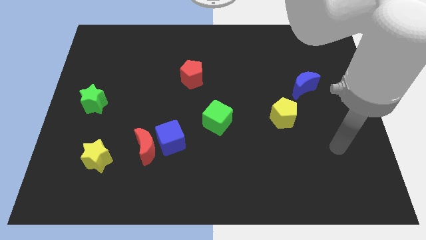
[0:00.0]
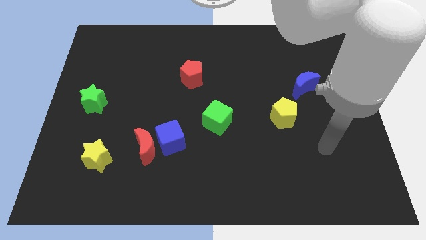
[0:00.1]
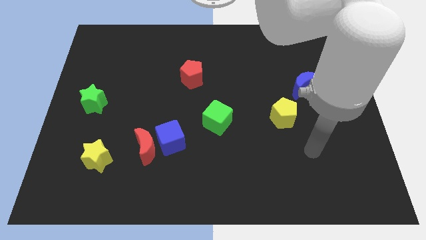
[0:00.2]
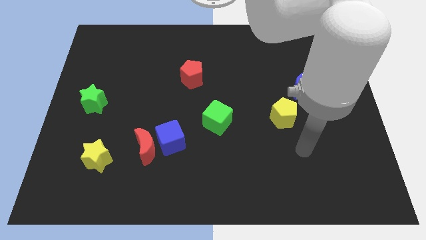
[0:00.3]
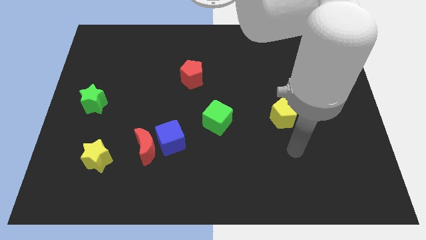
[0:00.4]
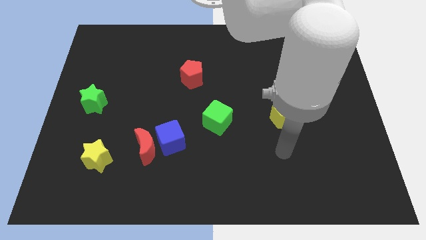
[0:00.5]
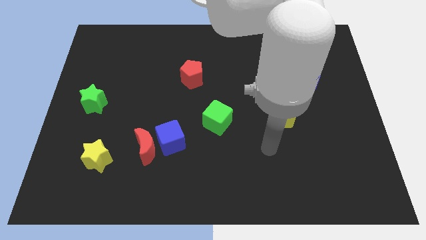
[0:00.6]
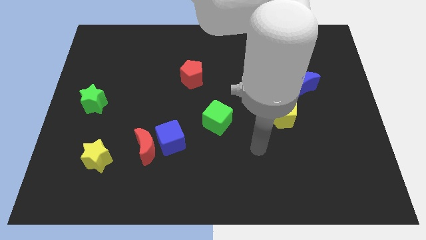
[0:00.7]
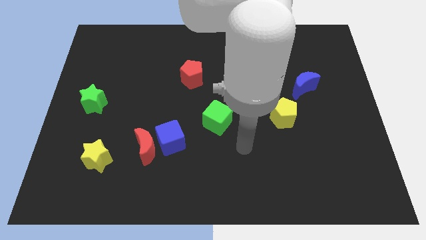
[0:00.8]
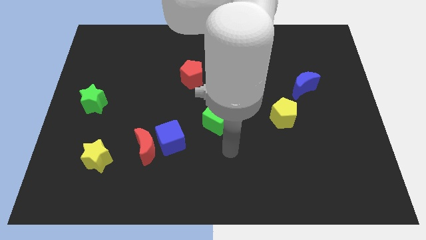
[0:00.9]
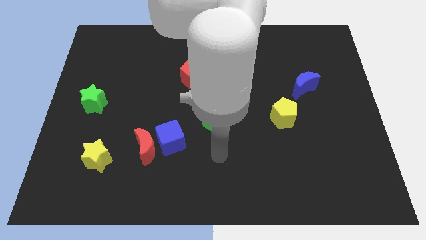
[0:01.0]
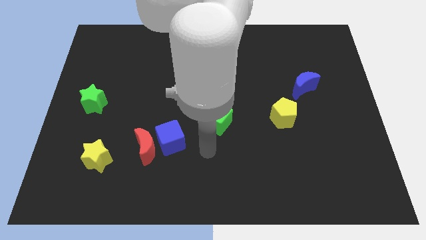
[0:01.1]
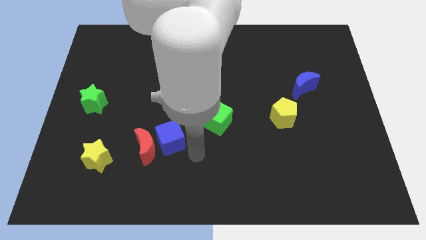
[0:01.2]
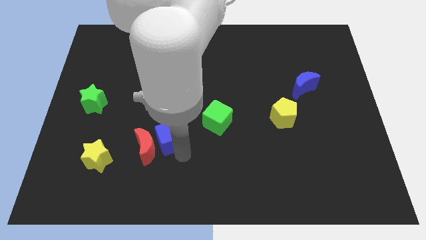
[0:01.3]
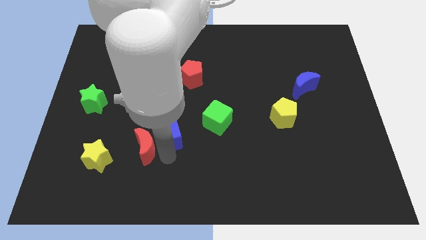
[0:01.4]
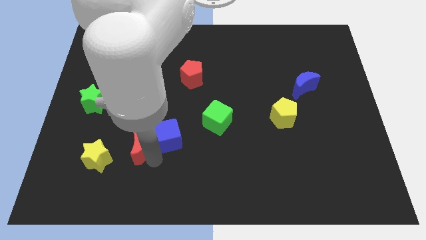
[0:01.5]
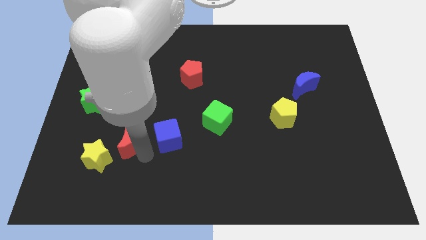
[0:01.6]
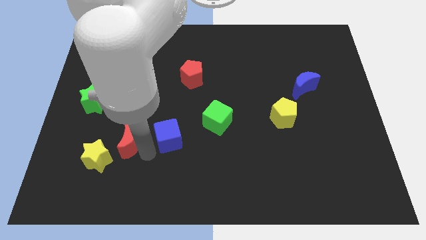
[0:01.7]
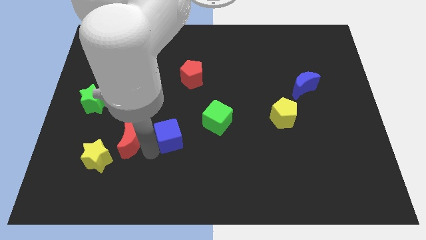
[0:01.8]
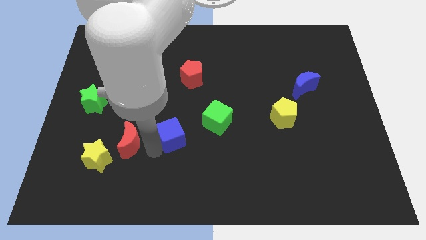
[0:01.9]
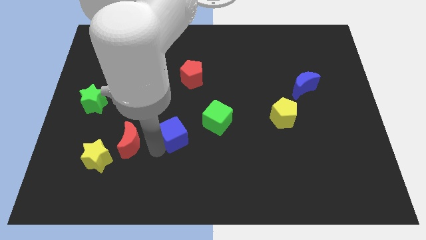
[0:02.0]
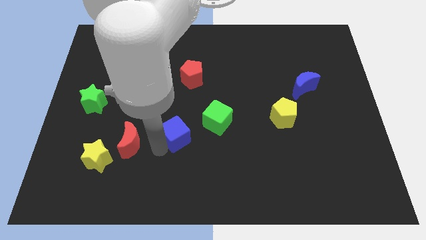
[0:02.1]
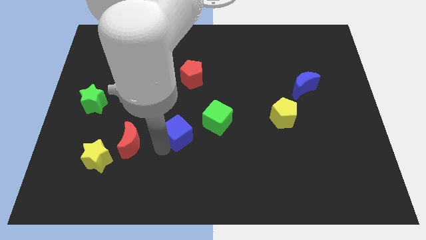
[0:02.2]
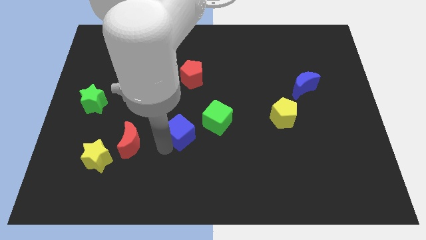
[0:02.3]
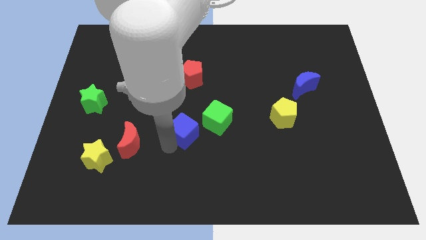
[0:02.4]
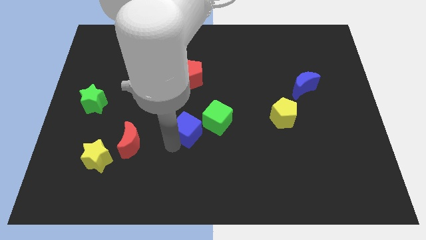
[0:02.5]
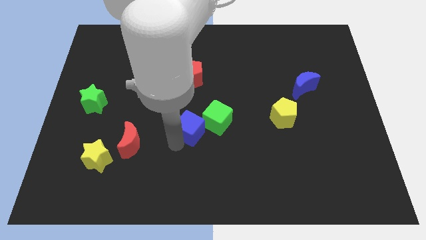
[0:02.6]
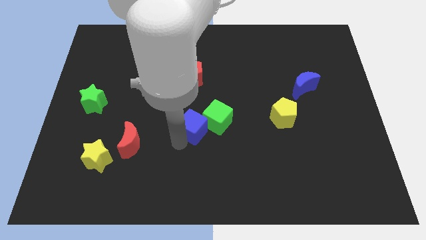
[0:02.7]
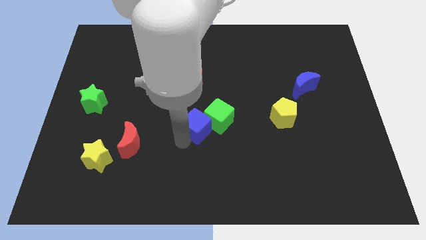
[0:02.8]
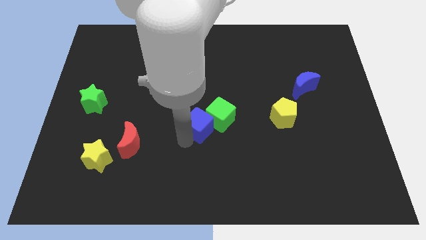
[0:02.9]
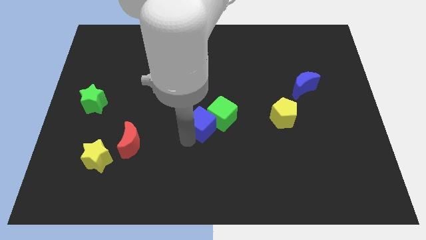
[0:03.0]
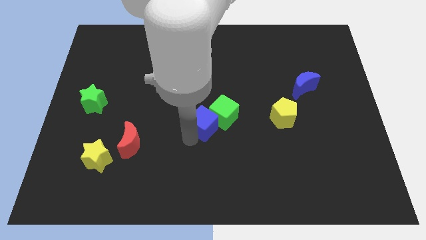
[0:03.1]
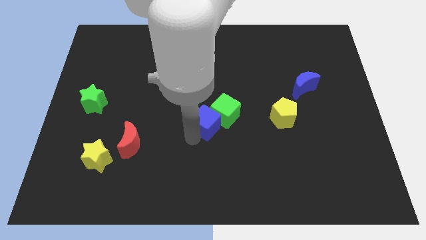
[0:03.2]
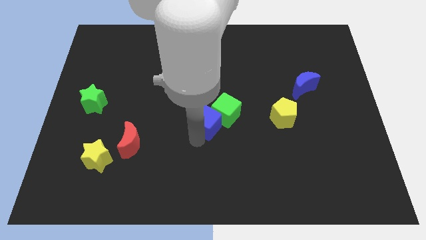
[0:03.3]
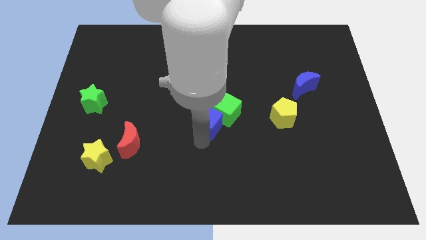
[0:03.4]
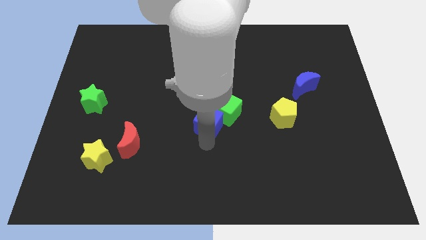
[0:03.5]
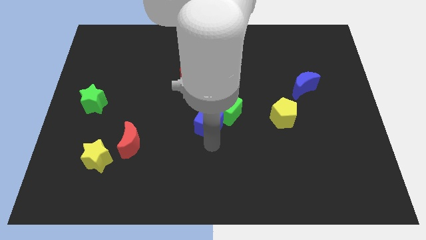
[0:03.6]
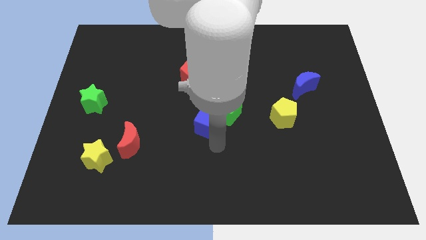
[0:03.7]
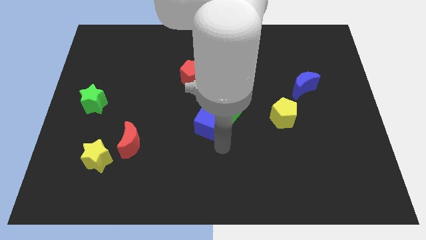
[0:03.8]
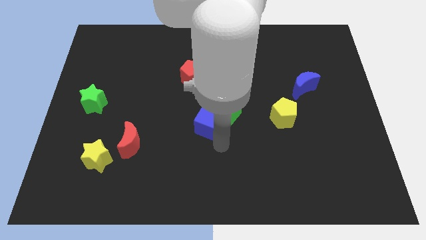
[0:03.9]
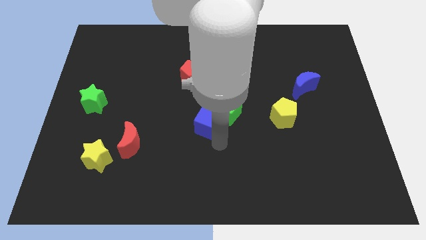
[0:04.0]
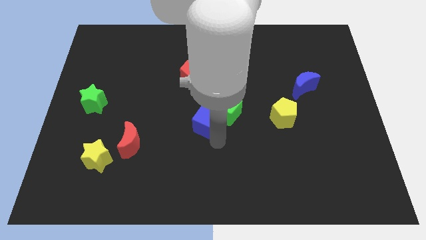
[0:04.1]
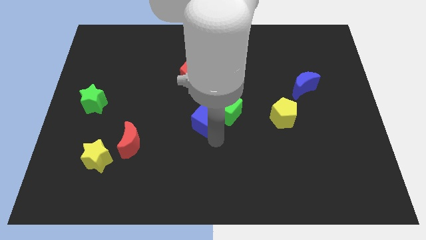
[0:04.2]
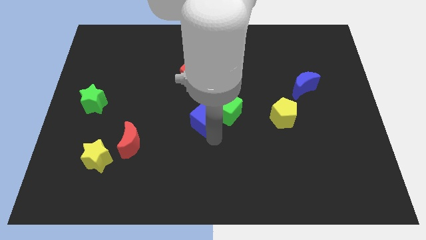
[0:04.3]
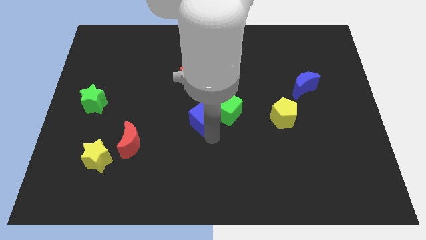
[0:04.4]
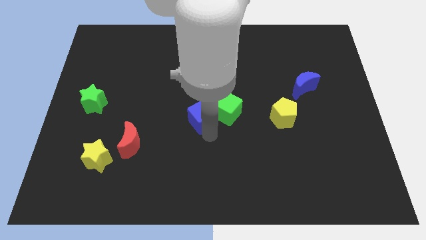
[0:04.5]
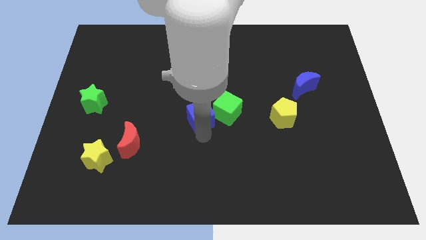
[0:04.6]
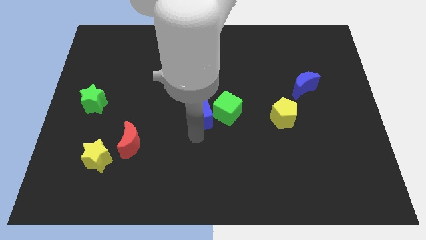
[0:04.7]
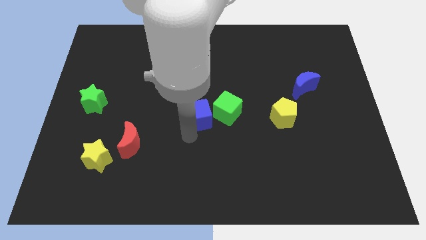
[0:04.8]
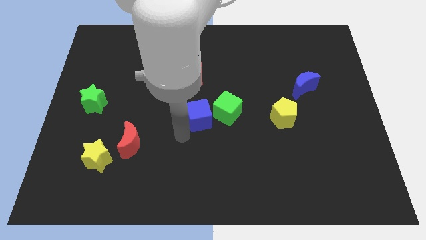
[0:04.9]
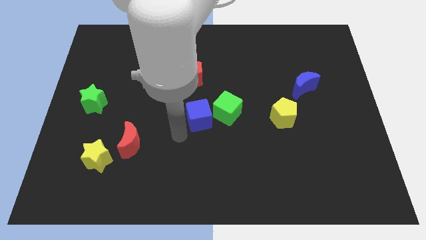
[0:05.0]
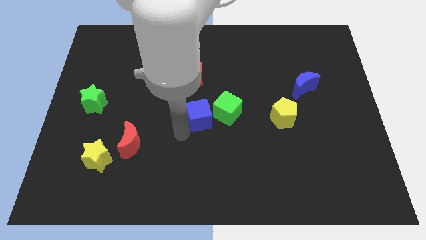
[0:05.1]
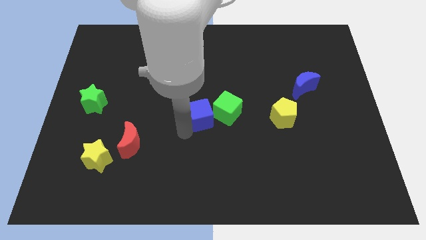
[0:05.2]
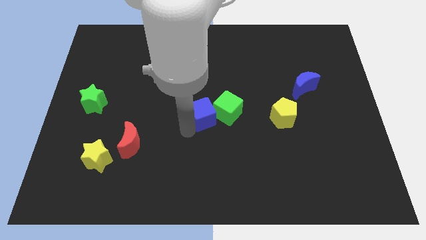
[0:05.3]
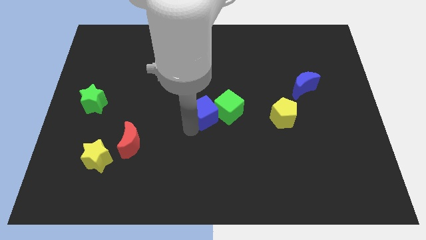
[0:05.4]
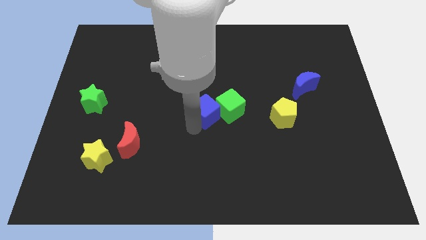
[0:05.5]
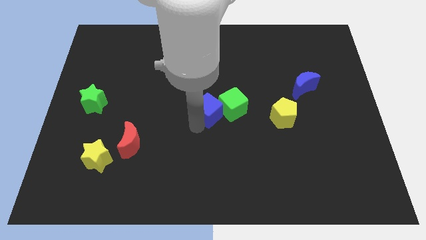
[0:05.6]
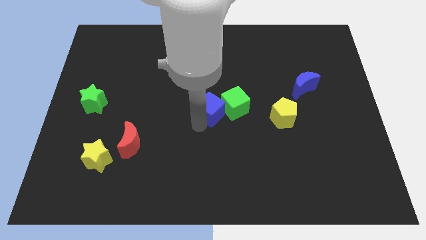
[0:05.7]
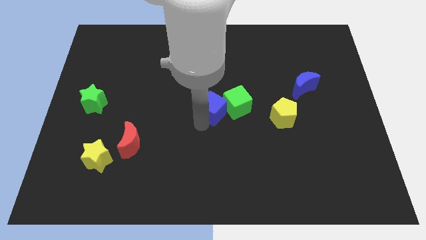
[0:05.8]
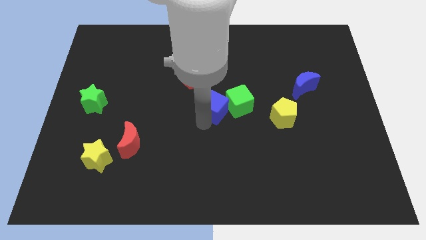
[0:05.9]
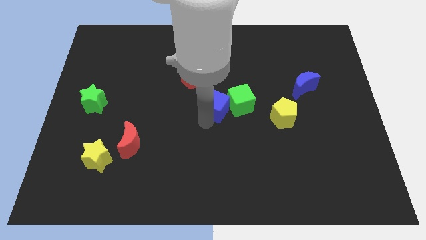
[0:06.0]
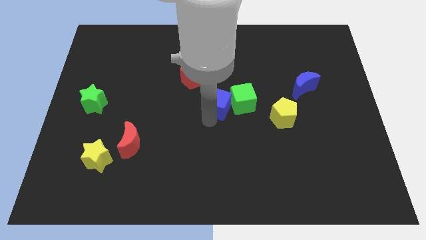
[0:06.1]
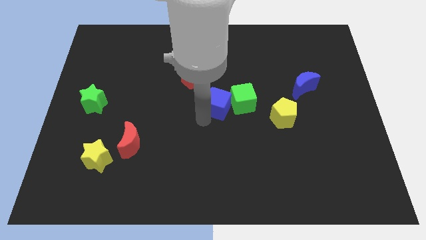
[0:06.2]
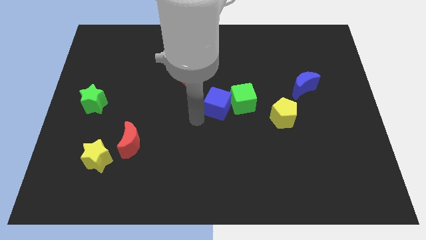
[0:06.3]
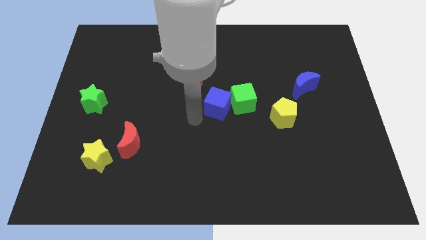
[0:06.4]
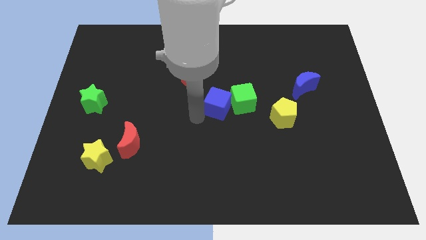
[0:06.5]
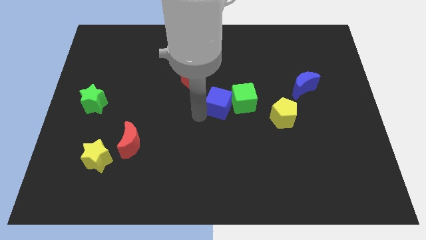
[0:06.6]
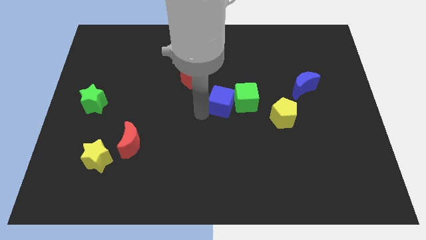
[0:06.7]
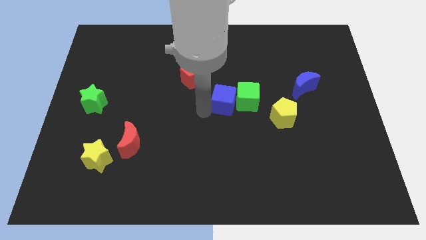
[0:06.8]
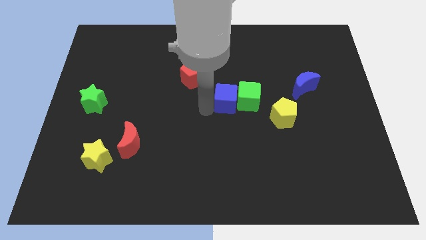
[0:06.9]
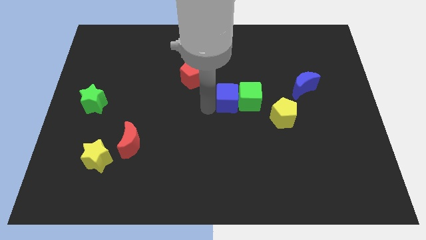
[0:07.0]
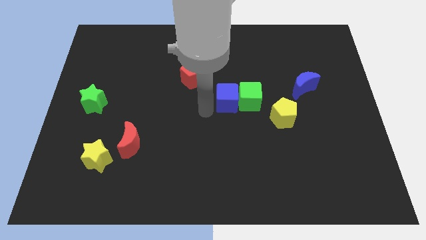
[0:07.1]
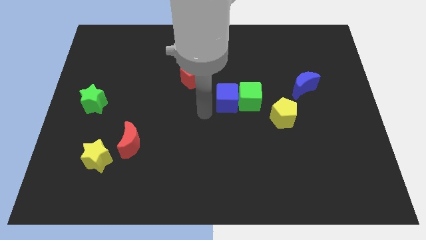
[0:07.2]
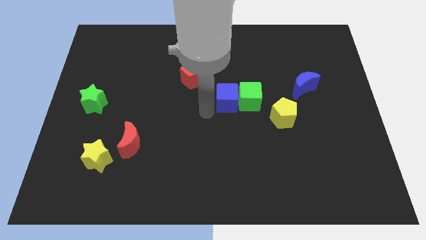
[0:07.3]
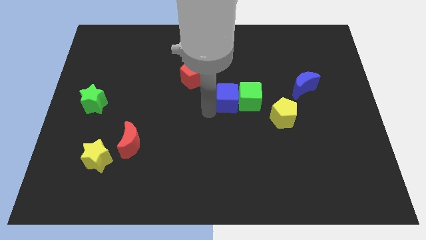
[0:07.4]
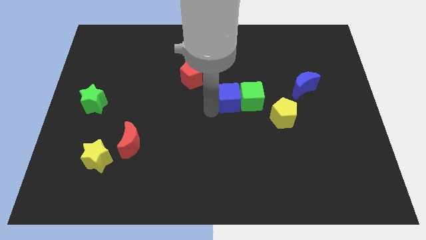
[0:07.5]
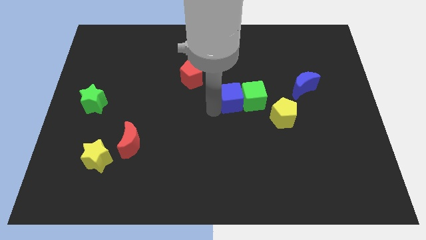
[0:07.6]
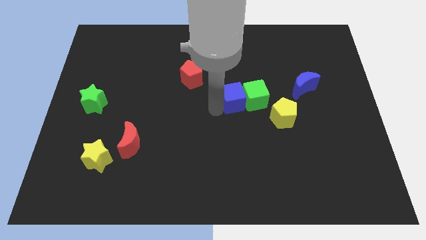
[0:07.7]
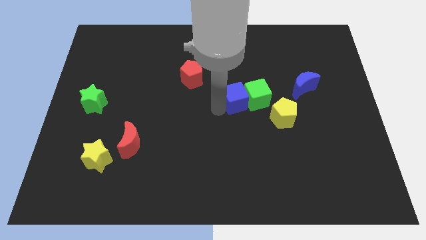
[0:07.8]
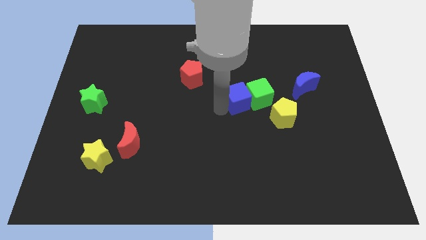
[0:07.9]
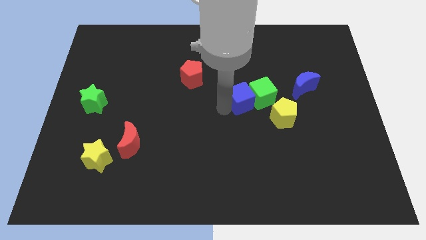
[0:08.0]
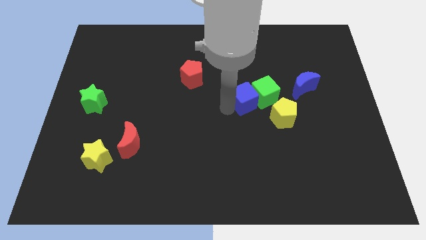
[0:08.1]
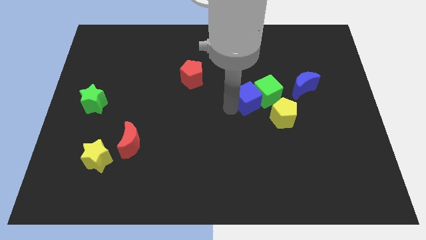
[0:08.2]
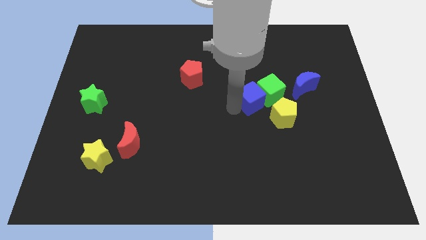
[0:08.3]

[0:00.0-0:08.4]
put the blue cube just left of the blue moon
